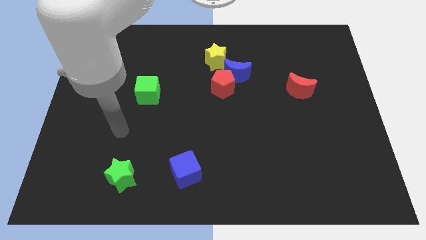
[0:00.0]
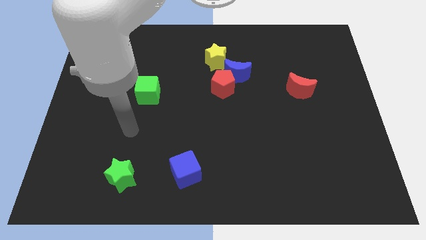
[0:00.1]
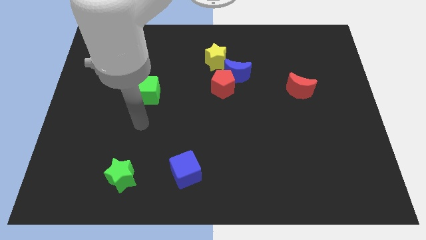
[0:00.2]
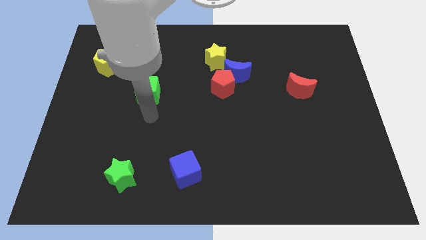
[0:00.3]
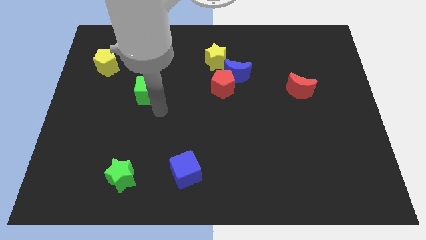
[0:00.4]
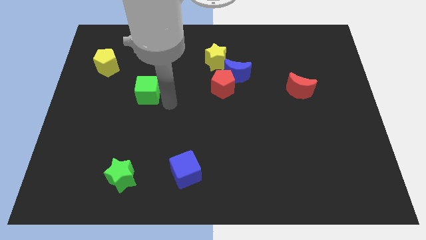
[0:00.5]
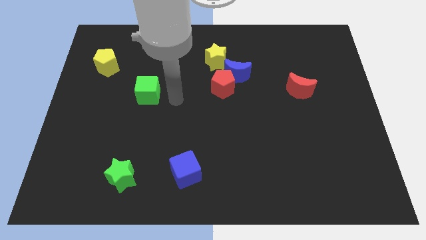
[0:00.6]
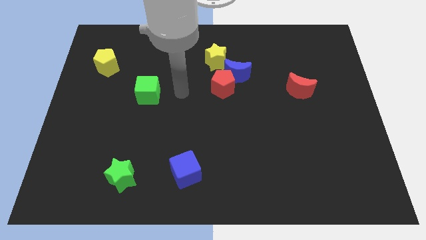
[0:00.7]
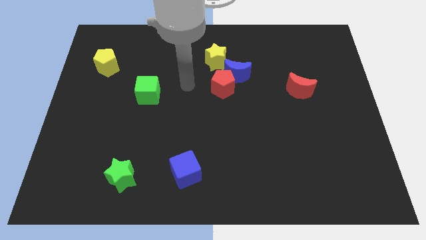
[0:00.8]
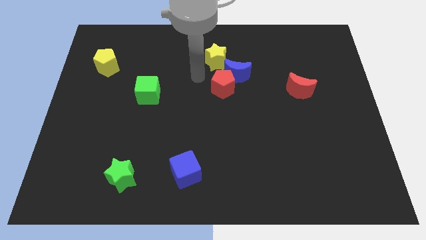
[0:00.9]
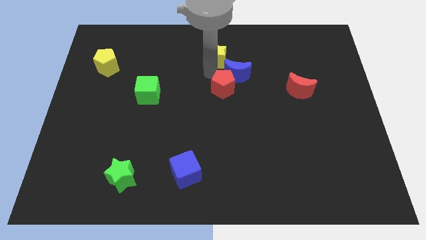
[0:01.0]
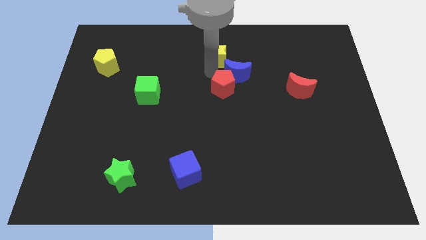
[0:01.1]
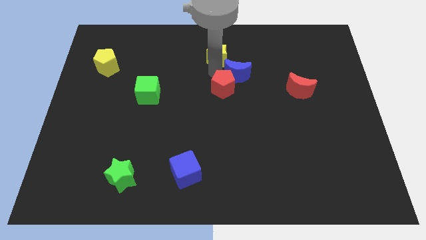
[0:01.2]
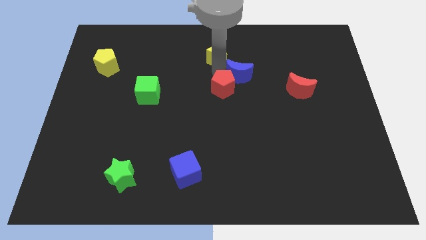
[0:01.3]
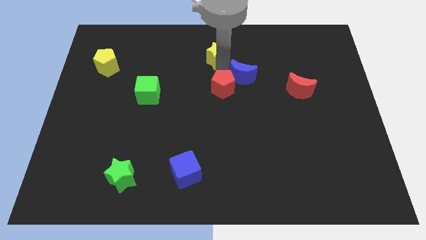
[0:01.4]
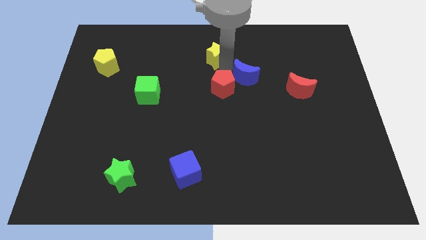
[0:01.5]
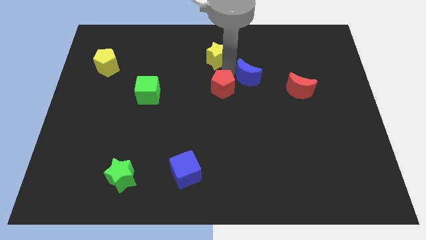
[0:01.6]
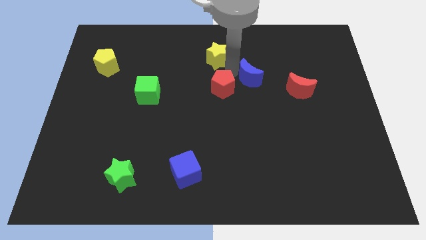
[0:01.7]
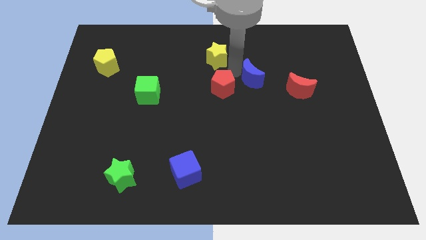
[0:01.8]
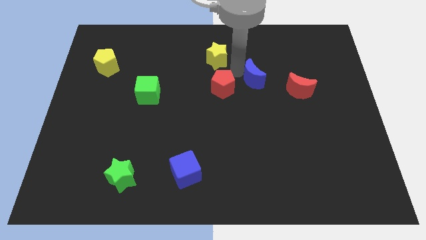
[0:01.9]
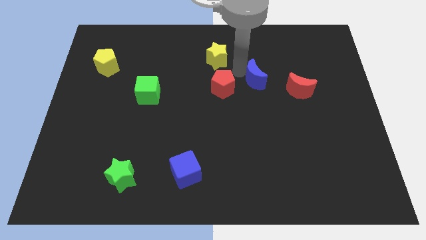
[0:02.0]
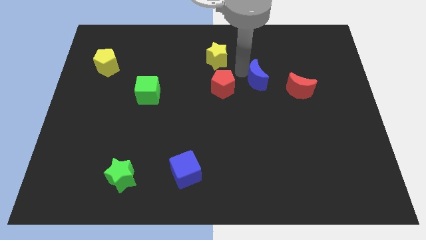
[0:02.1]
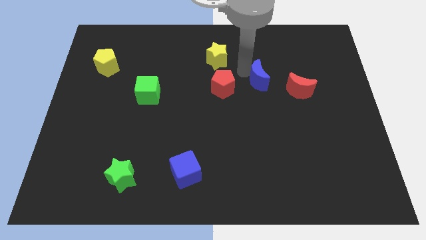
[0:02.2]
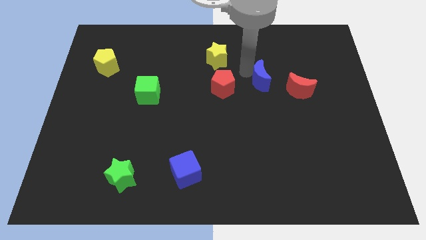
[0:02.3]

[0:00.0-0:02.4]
separate the blue moon from the red pentagon and yellow star

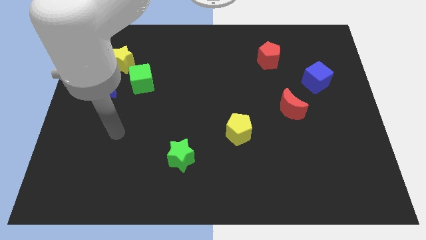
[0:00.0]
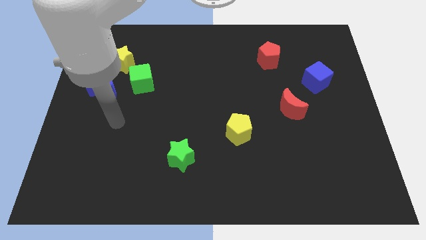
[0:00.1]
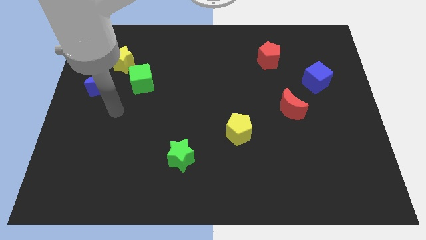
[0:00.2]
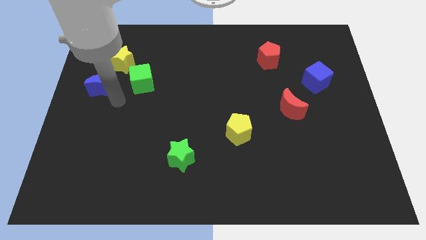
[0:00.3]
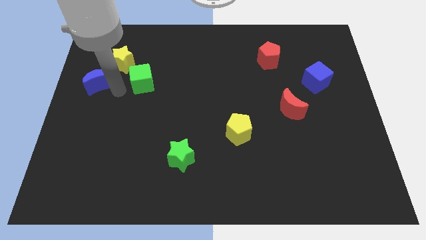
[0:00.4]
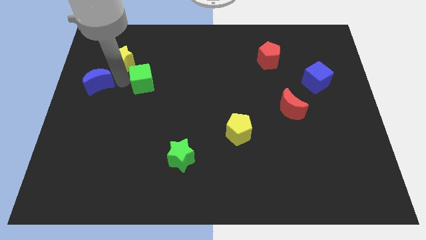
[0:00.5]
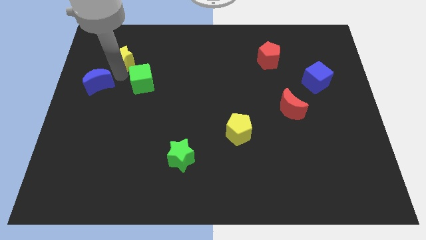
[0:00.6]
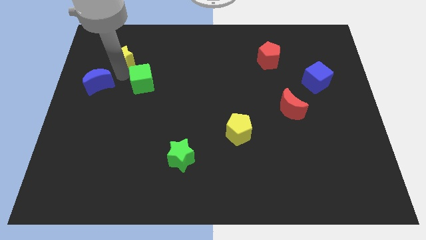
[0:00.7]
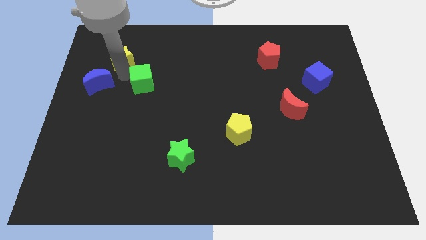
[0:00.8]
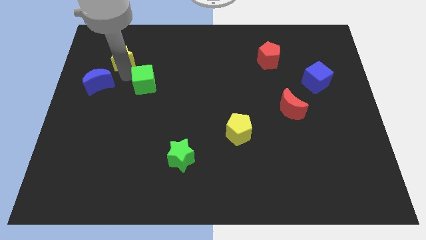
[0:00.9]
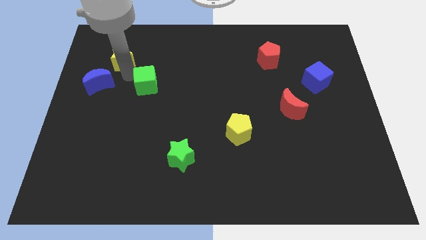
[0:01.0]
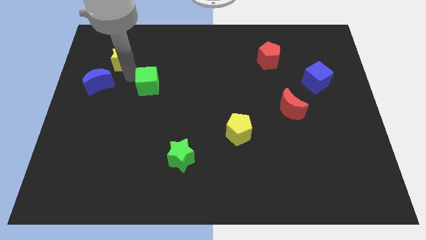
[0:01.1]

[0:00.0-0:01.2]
pull the green cube apart from the yellow star and blue moon

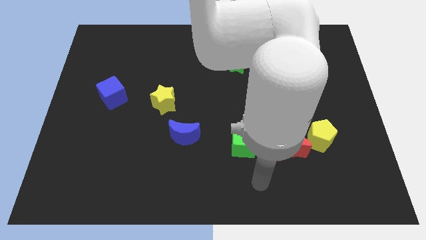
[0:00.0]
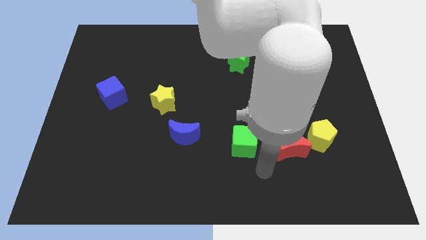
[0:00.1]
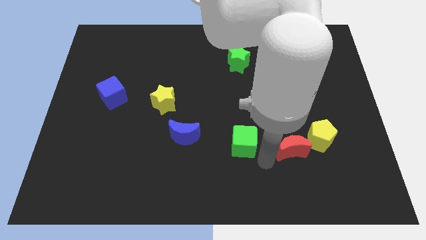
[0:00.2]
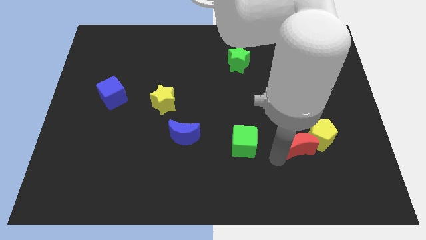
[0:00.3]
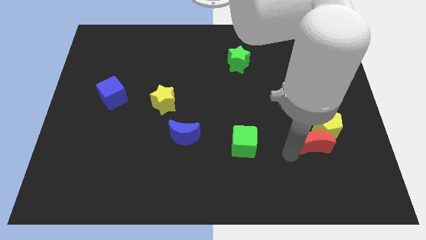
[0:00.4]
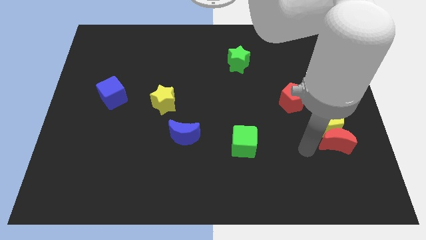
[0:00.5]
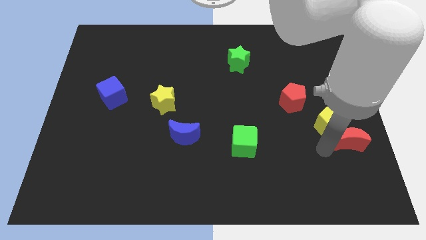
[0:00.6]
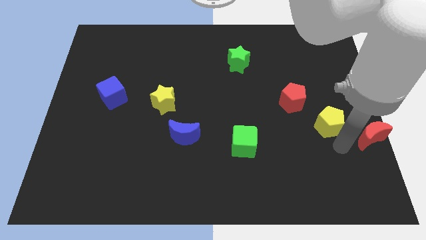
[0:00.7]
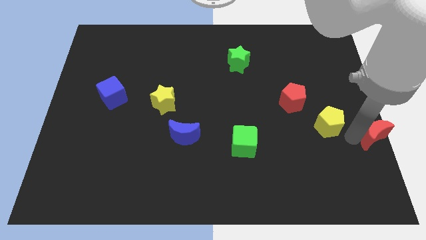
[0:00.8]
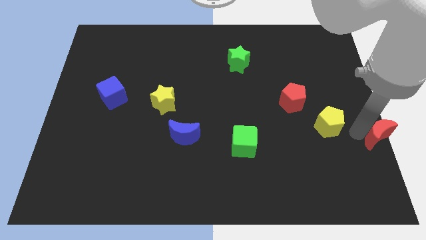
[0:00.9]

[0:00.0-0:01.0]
move the yellow pentagon away from the red moon

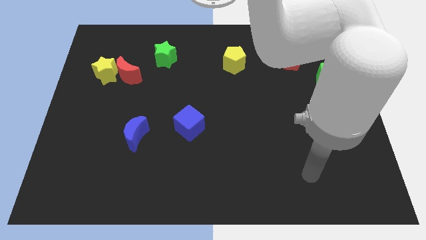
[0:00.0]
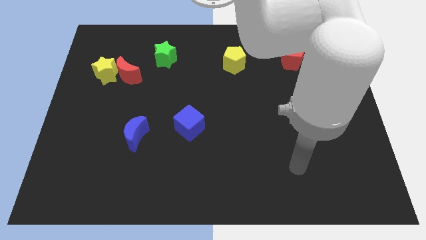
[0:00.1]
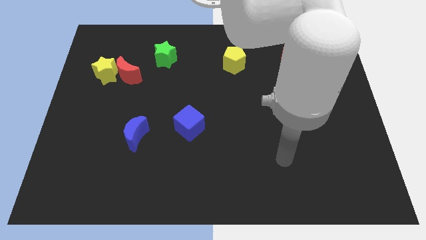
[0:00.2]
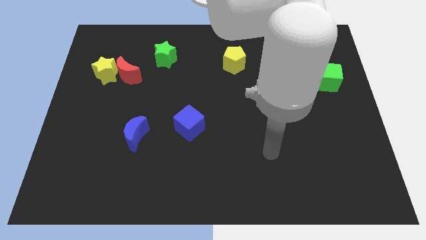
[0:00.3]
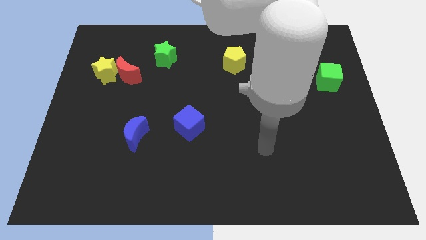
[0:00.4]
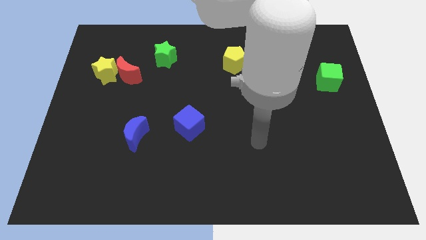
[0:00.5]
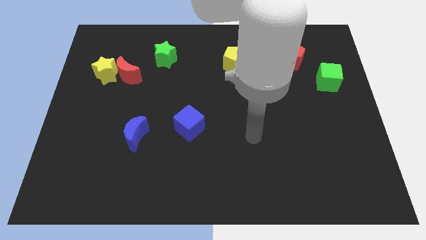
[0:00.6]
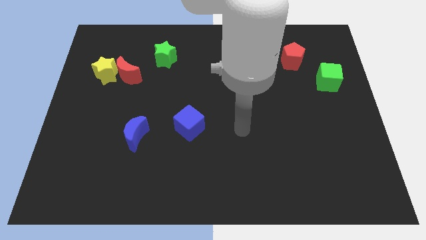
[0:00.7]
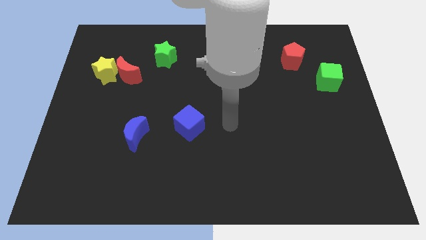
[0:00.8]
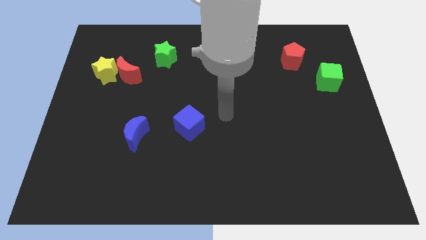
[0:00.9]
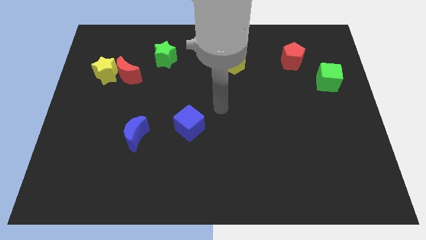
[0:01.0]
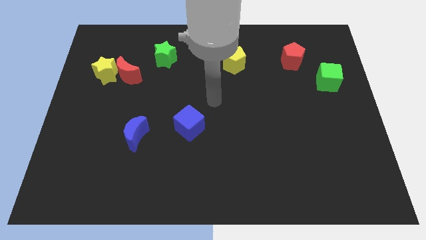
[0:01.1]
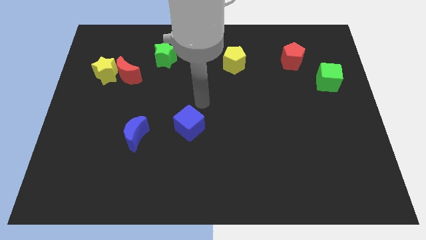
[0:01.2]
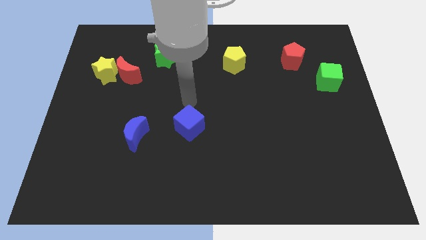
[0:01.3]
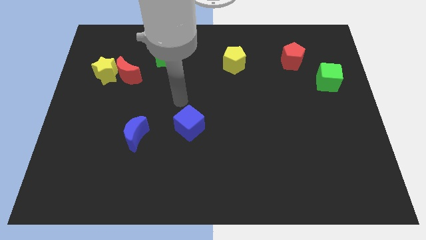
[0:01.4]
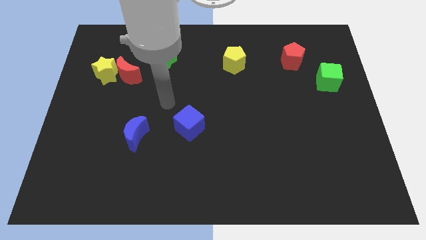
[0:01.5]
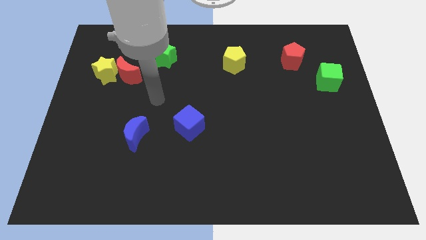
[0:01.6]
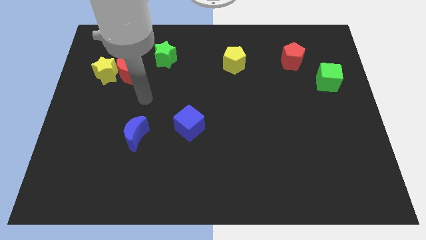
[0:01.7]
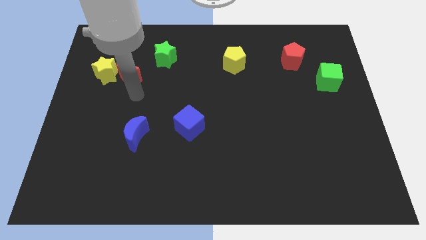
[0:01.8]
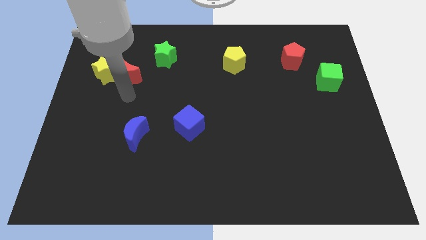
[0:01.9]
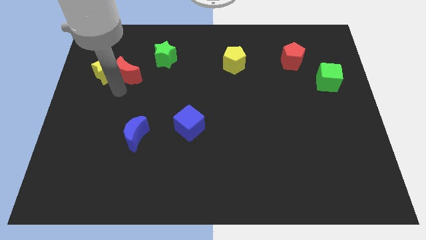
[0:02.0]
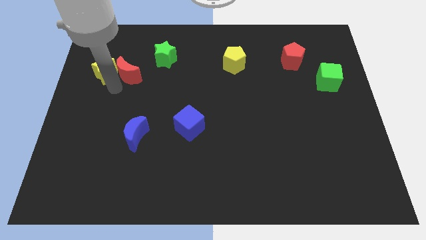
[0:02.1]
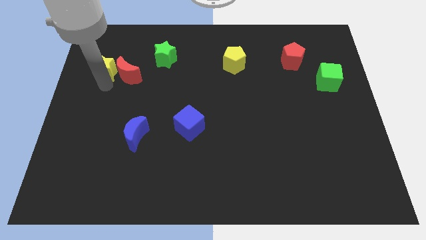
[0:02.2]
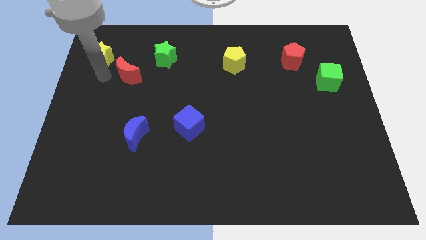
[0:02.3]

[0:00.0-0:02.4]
move the red moon away from the yellow star

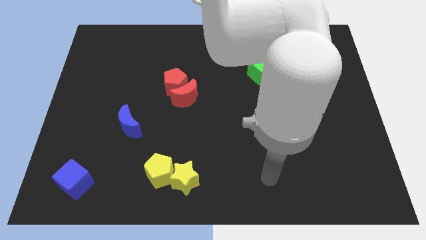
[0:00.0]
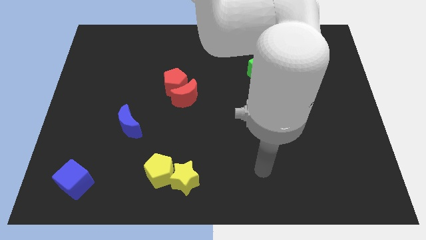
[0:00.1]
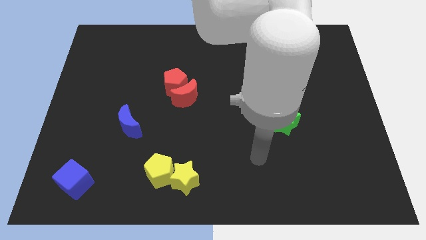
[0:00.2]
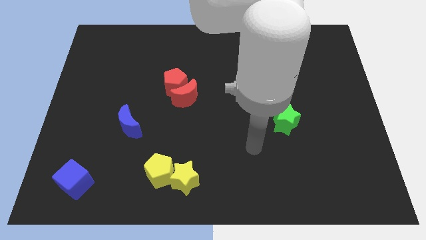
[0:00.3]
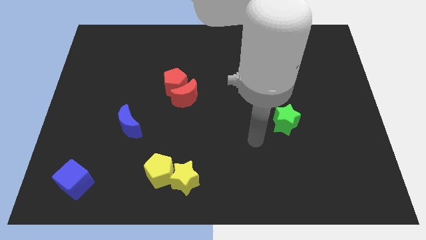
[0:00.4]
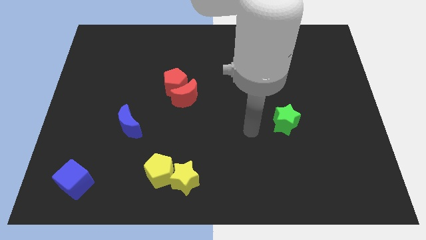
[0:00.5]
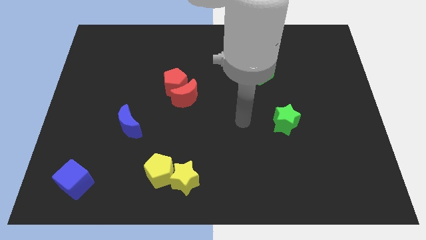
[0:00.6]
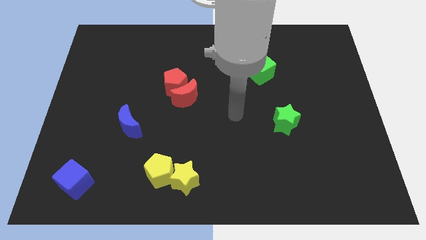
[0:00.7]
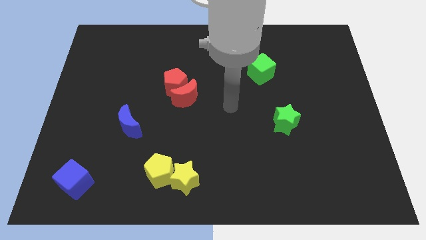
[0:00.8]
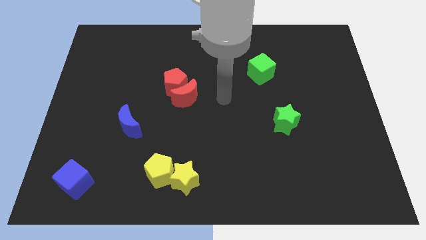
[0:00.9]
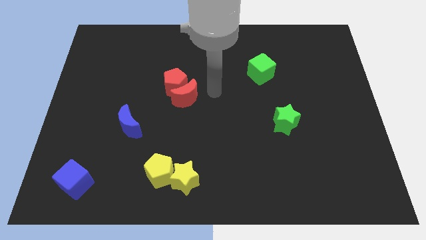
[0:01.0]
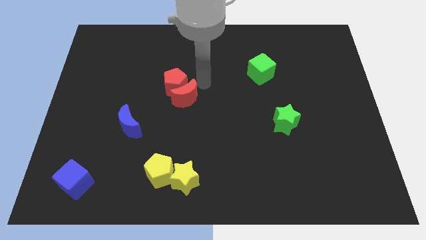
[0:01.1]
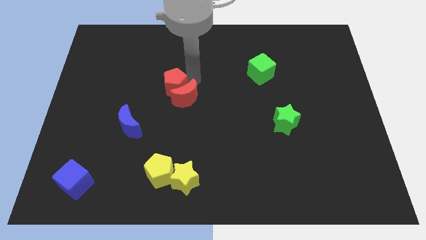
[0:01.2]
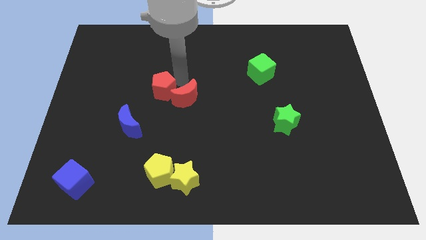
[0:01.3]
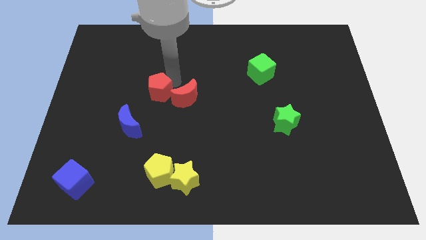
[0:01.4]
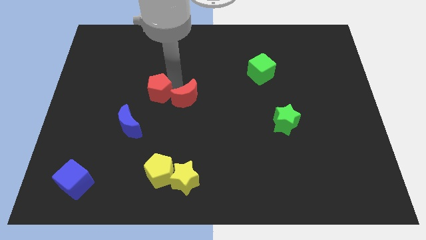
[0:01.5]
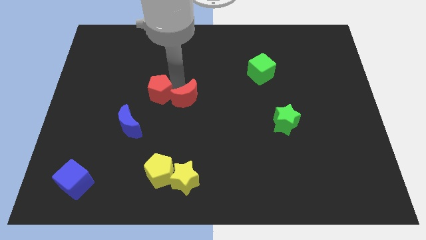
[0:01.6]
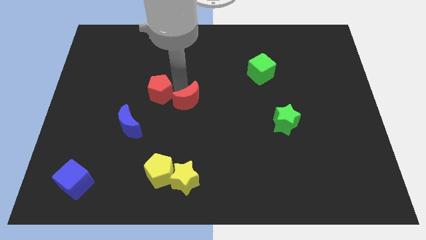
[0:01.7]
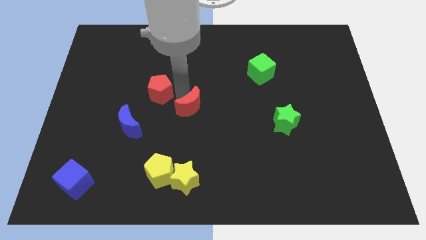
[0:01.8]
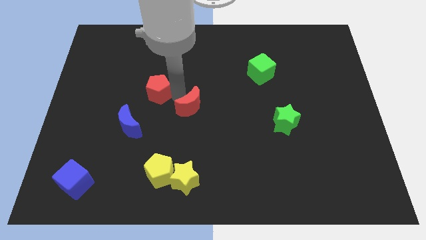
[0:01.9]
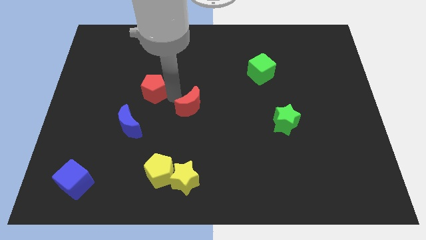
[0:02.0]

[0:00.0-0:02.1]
separate the red moon from the red pentagon

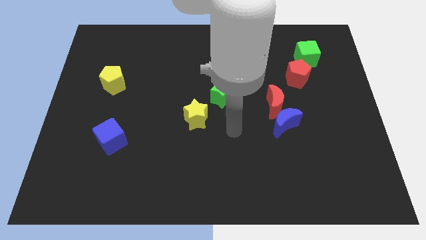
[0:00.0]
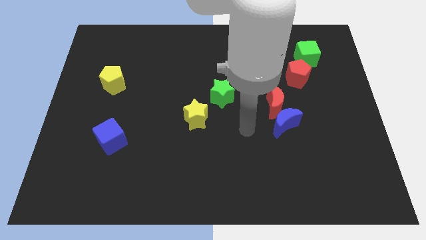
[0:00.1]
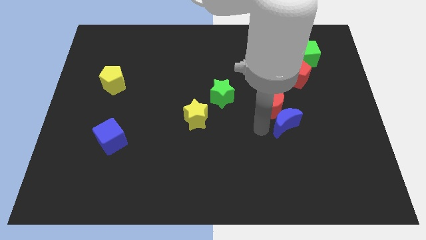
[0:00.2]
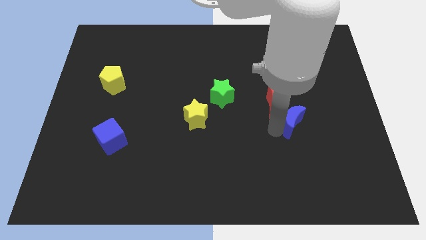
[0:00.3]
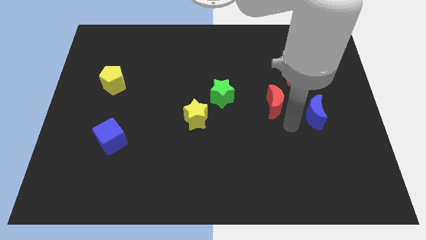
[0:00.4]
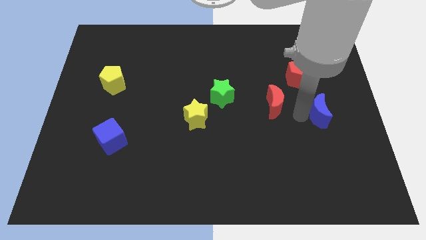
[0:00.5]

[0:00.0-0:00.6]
separate the red moon from the blue moon
